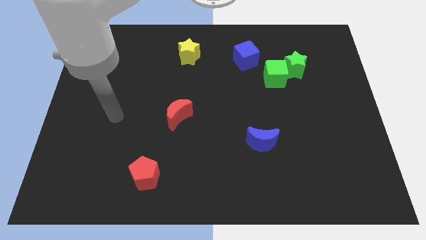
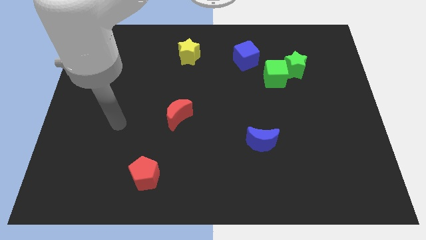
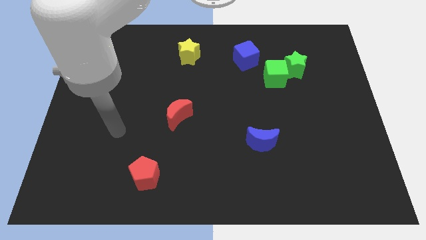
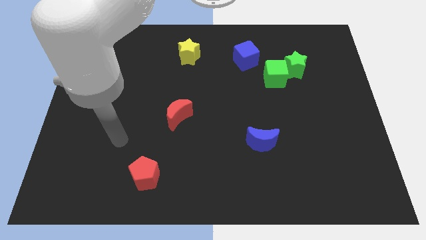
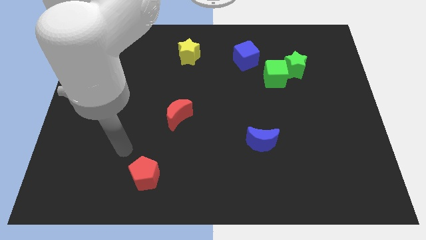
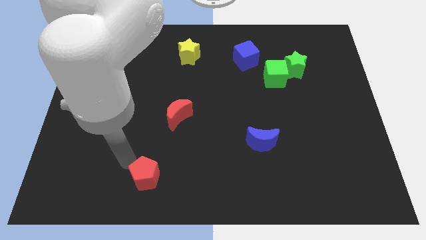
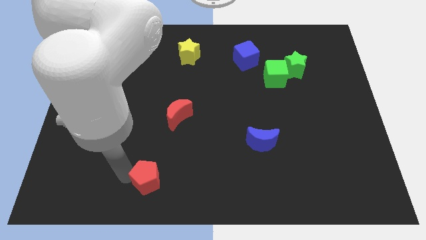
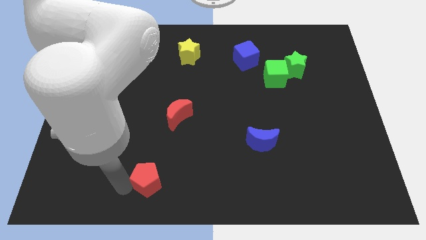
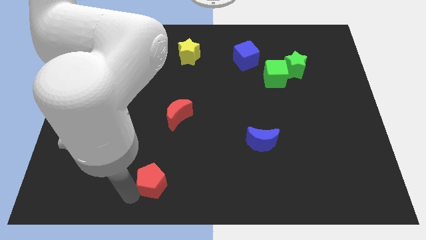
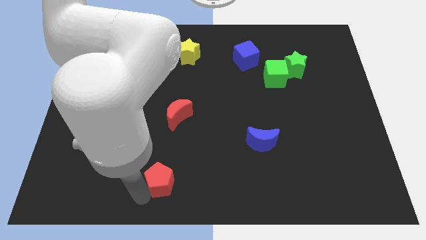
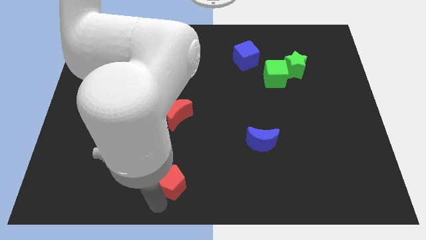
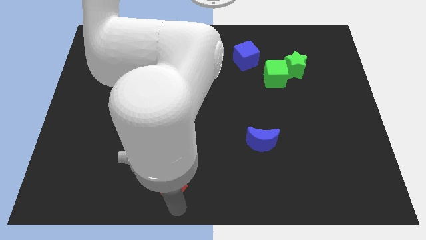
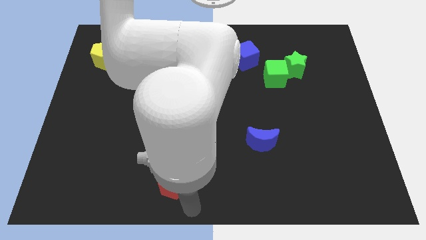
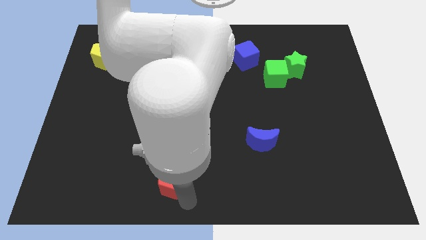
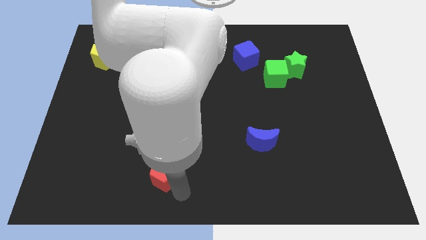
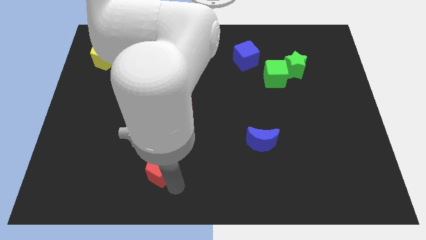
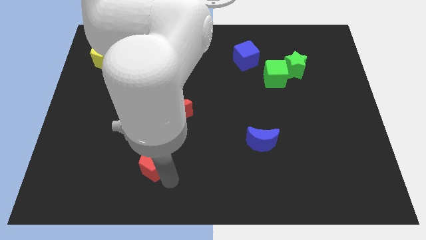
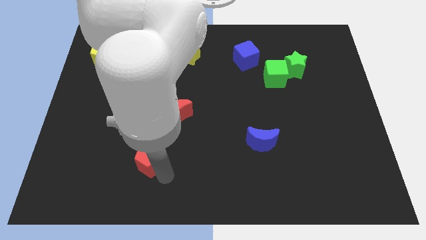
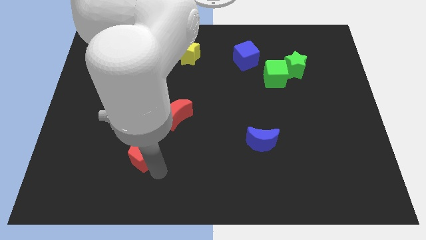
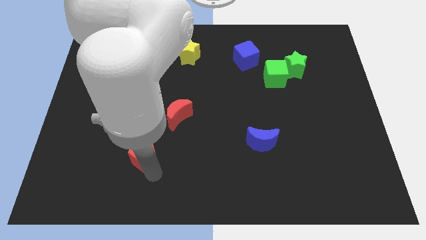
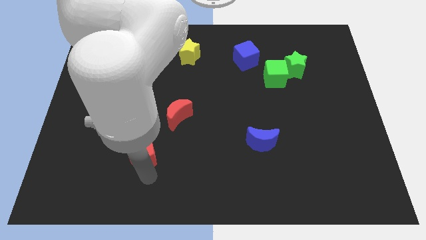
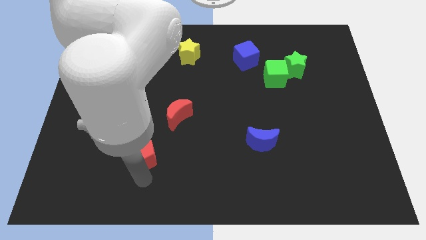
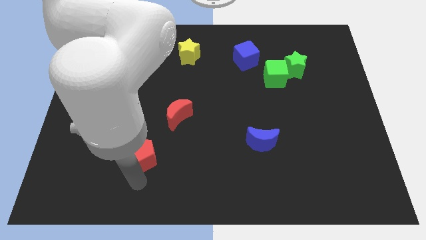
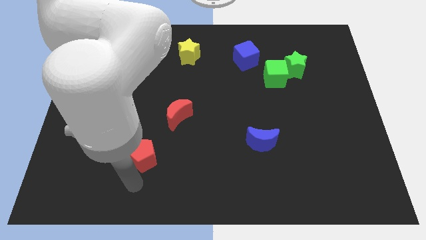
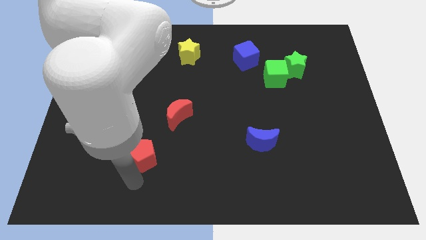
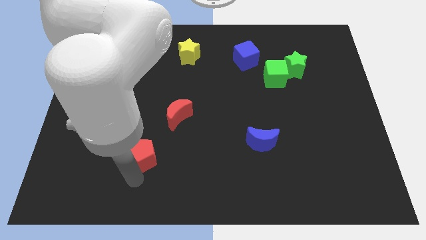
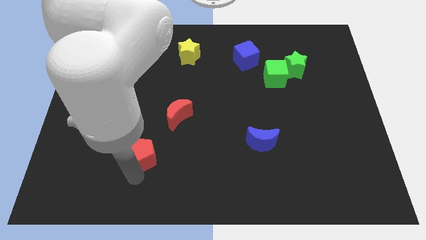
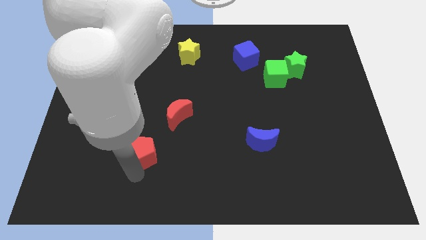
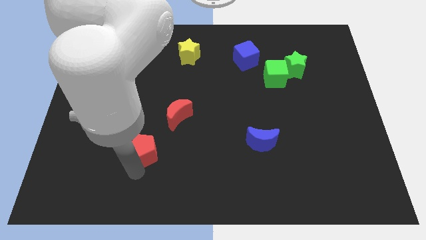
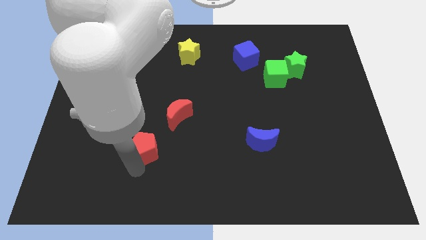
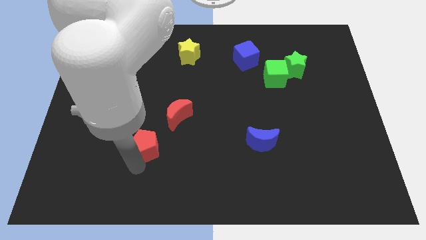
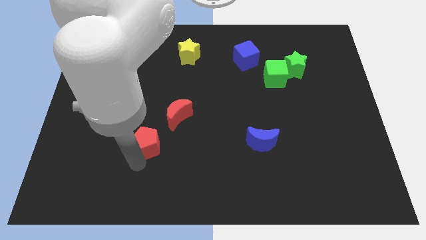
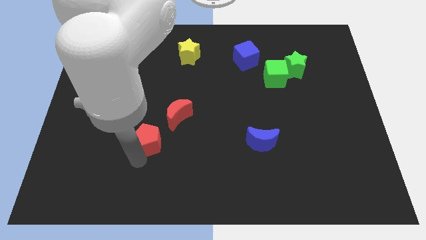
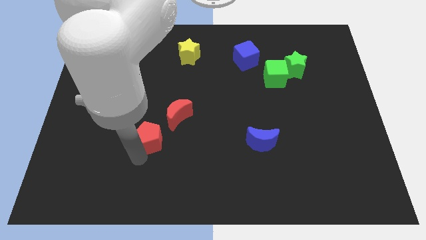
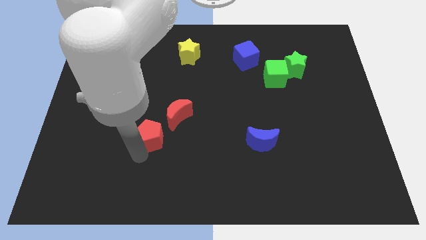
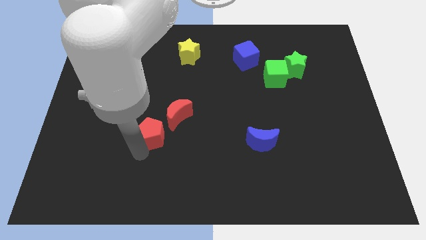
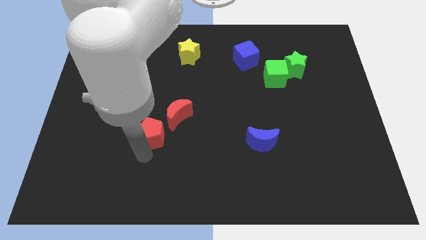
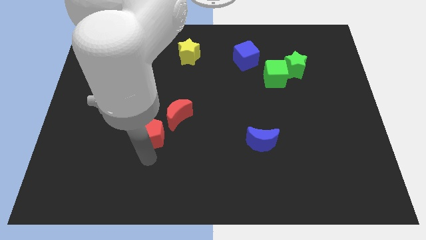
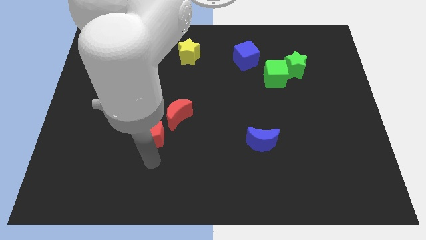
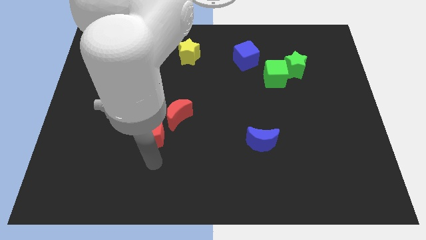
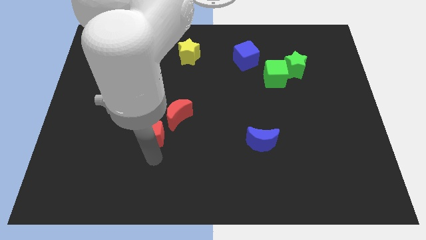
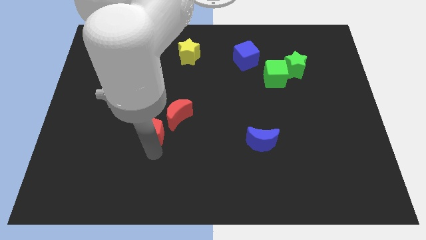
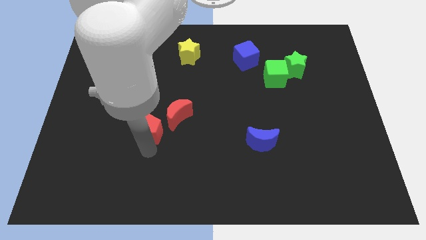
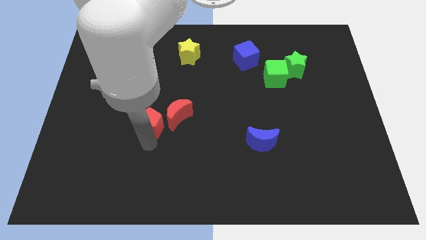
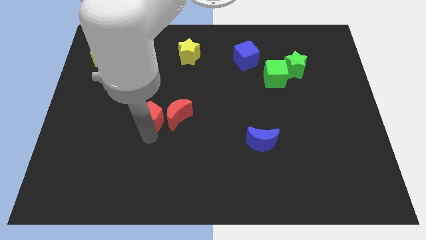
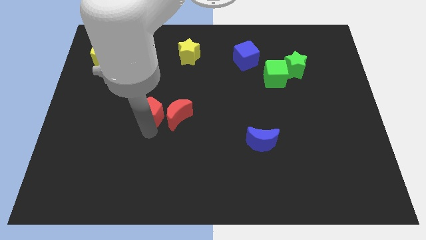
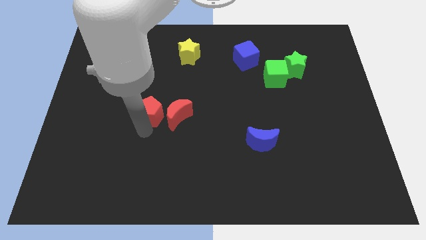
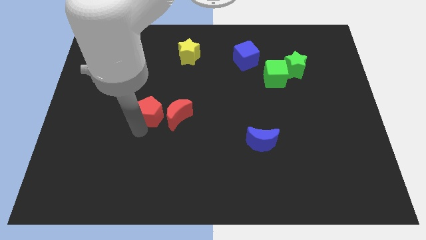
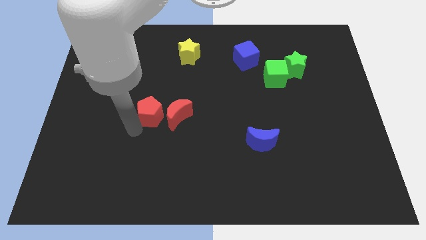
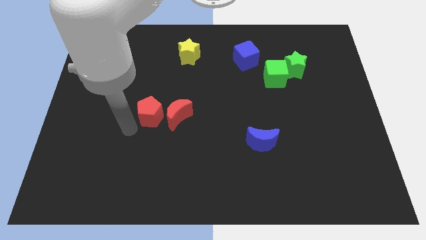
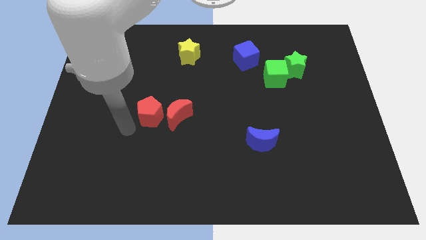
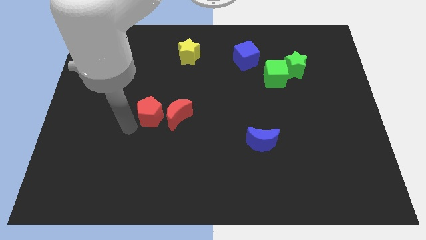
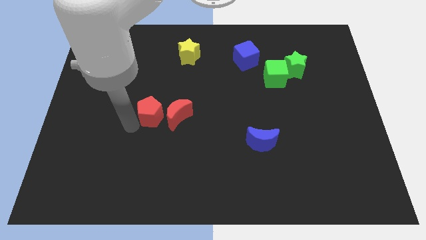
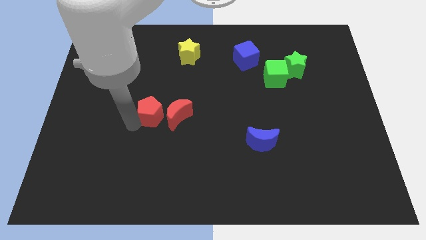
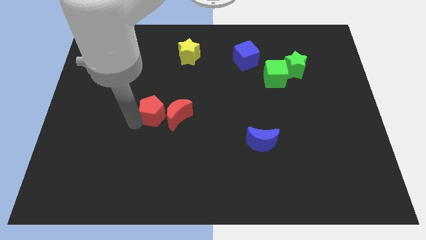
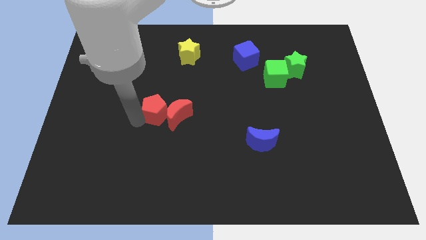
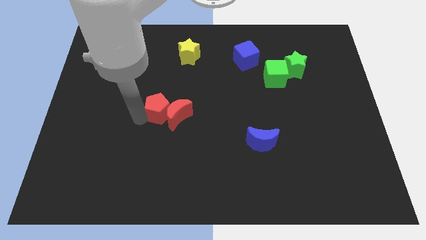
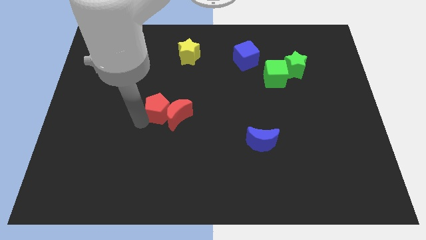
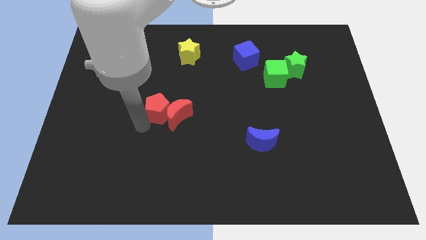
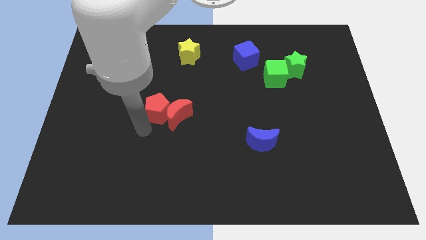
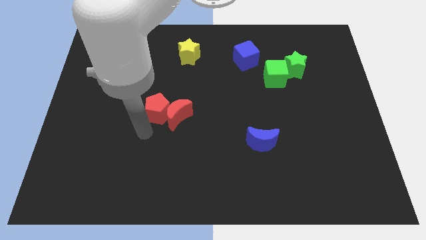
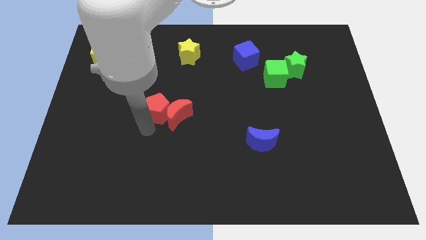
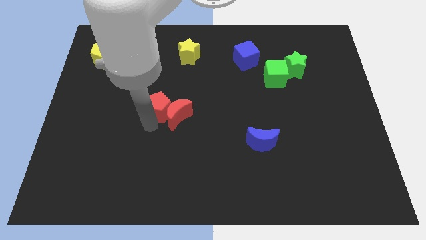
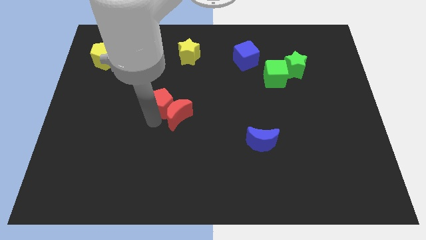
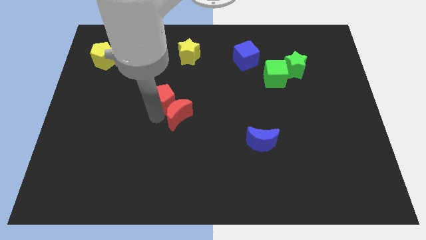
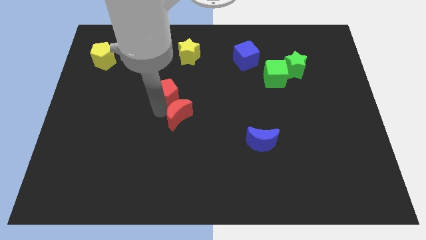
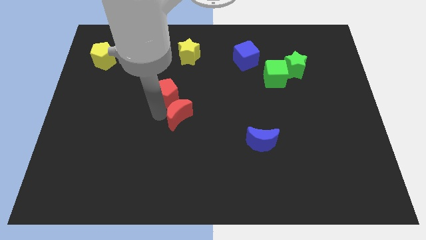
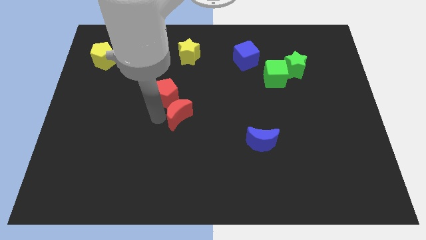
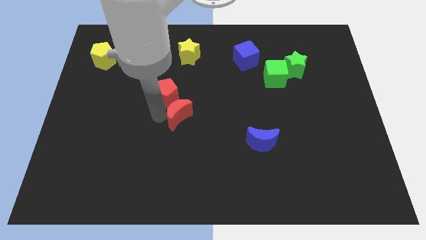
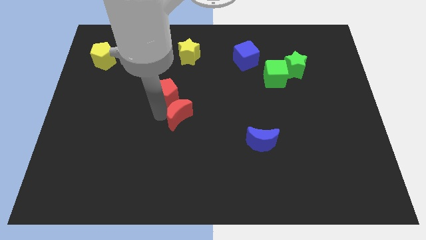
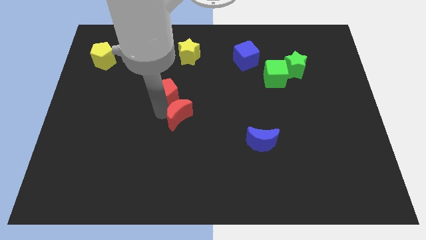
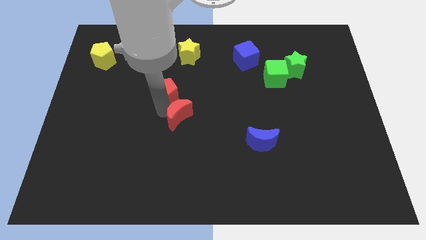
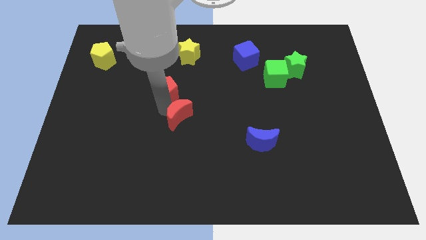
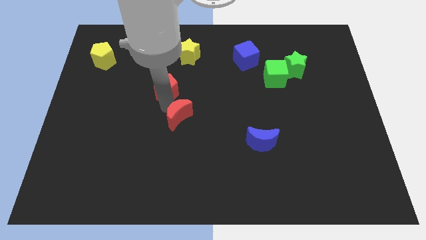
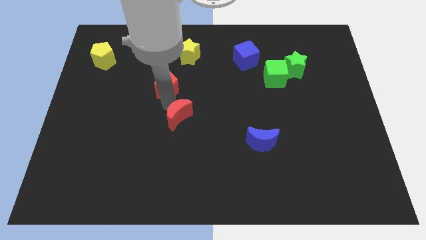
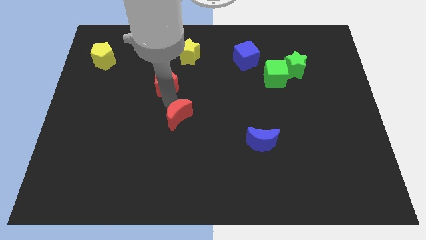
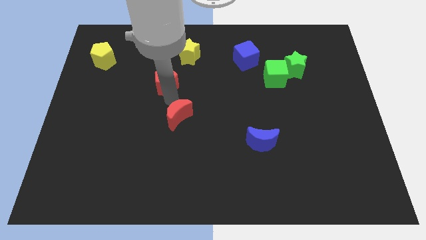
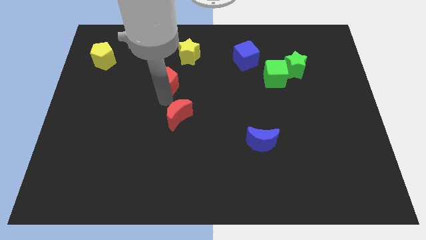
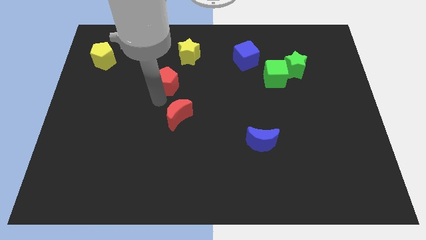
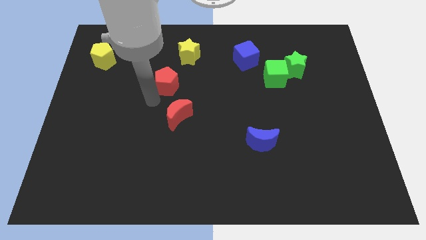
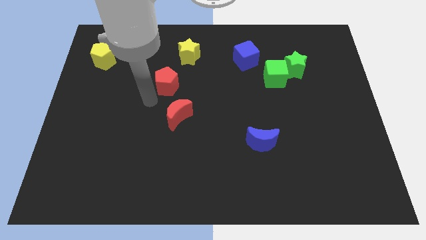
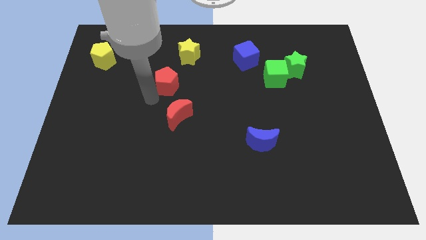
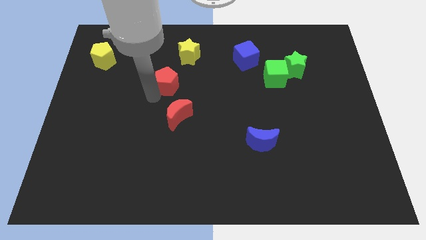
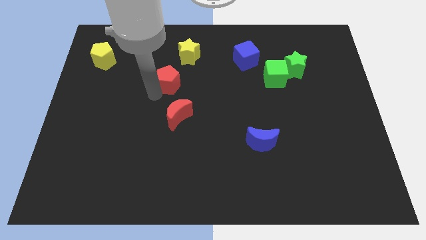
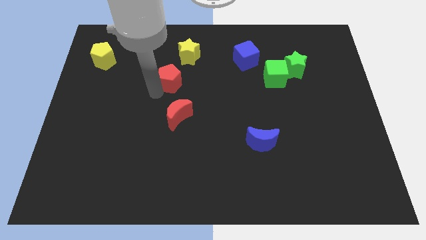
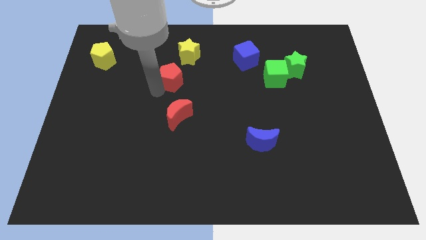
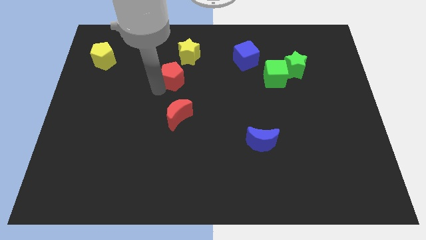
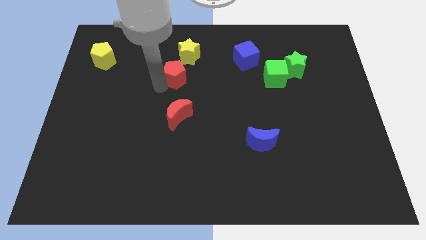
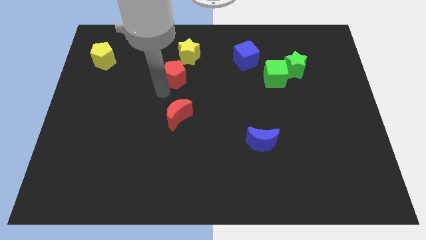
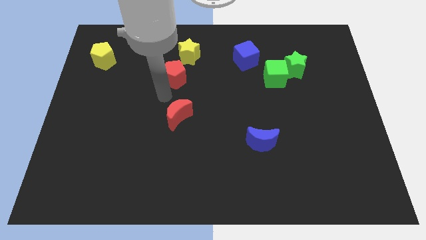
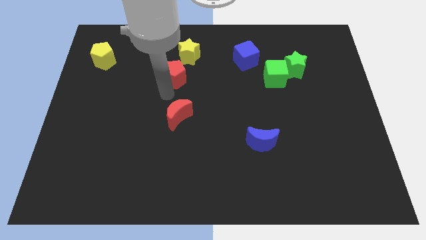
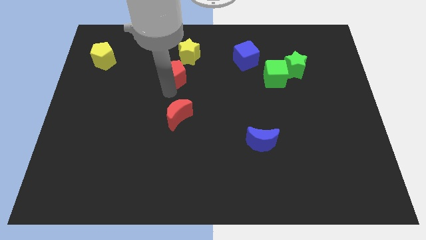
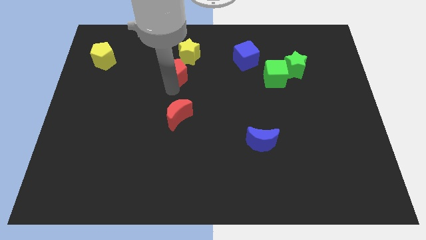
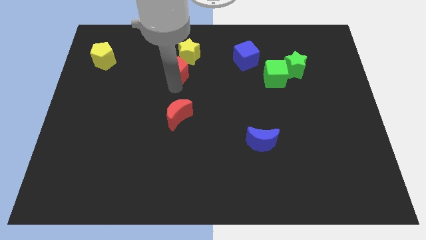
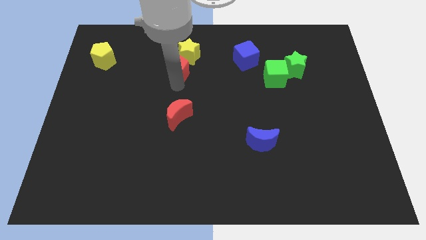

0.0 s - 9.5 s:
move the red pentagon next to the yellow star
